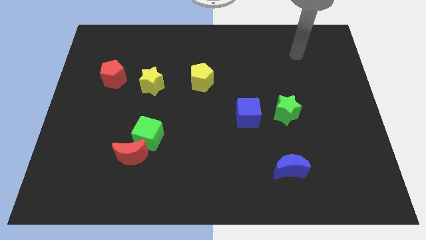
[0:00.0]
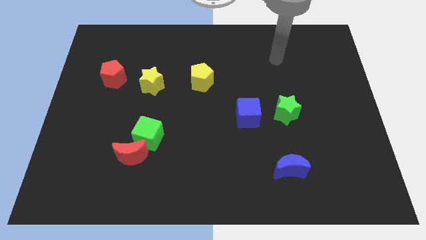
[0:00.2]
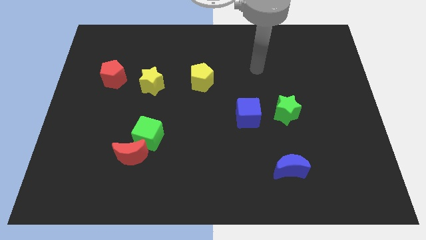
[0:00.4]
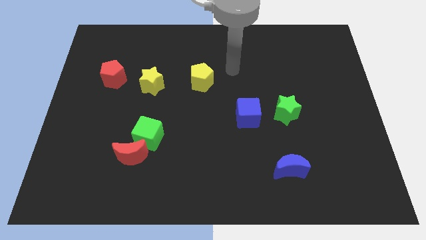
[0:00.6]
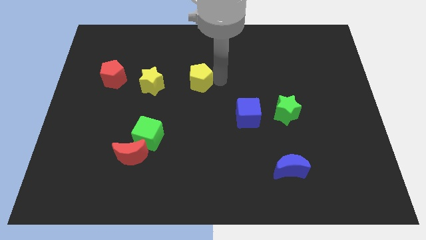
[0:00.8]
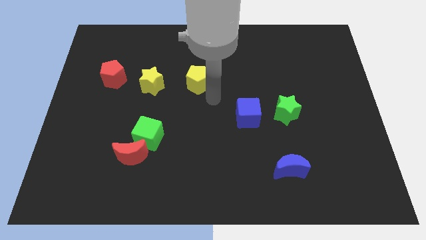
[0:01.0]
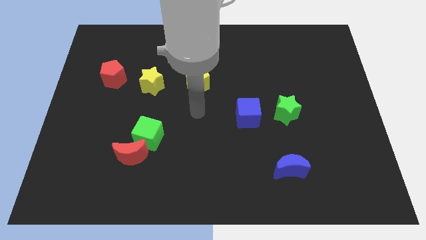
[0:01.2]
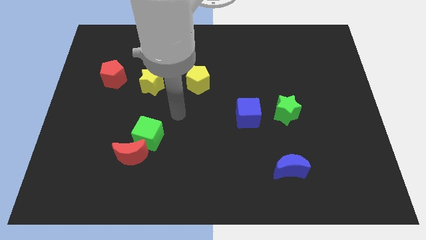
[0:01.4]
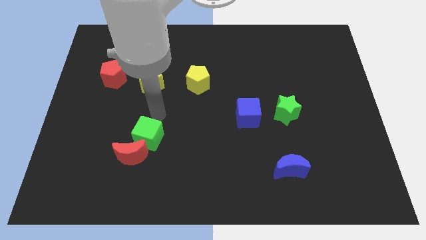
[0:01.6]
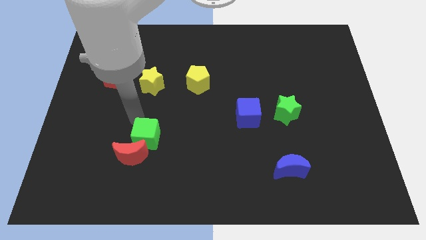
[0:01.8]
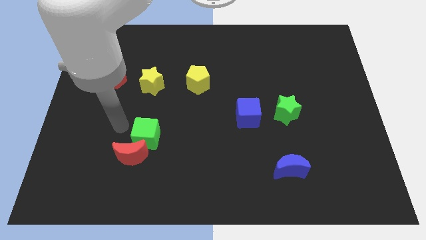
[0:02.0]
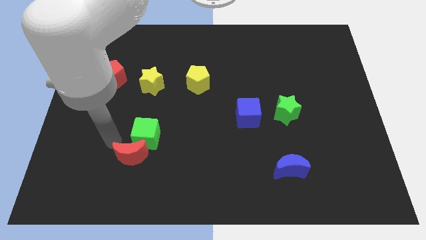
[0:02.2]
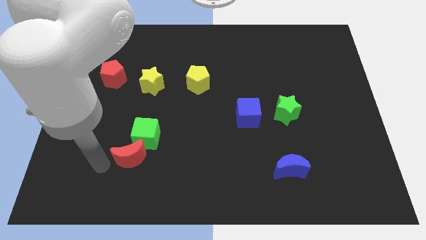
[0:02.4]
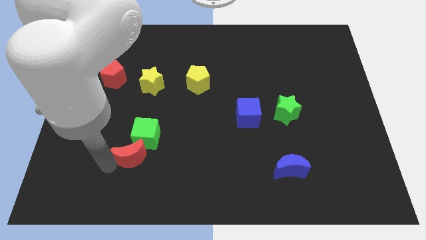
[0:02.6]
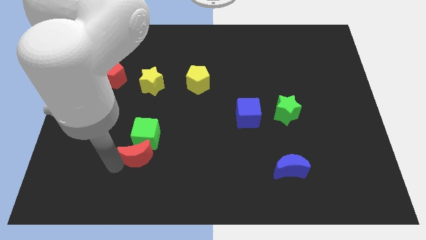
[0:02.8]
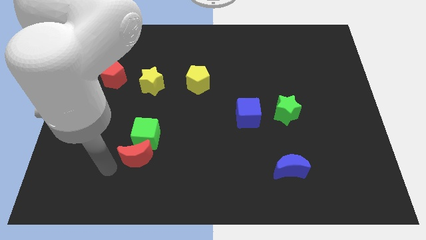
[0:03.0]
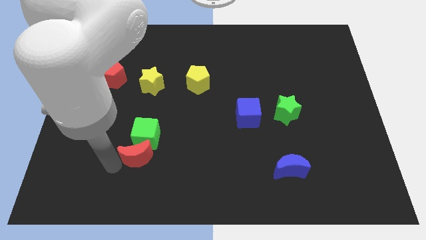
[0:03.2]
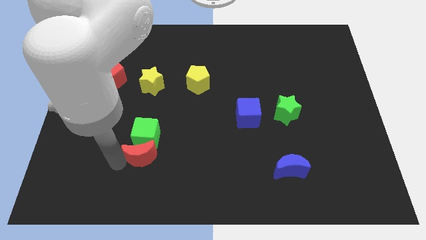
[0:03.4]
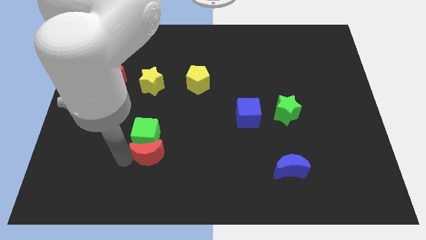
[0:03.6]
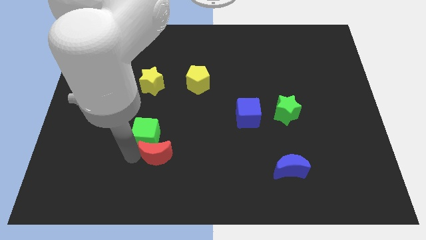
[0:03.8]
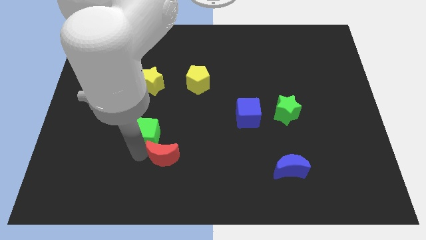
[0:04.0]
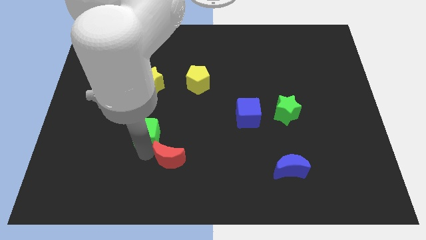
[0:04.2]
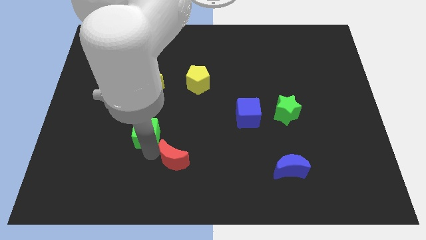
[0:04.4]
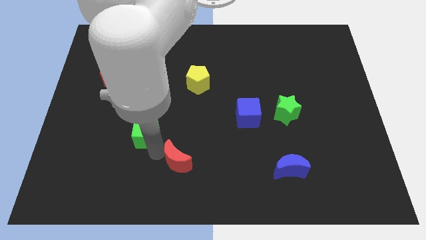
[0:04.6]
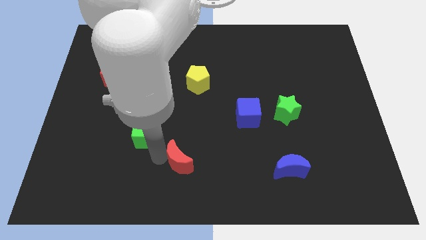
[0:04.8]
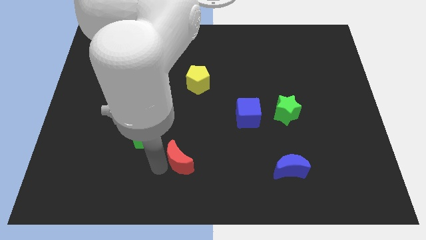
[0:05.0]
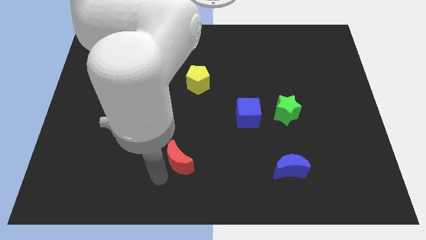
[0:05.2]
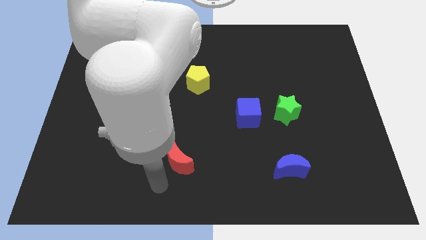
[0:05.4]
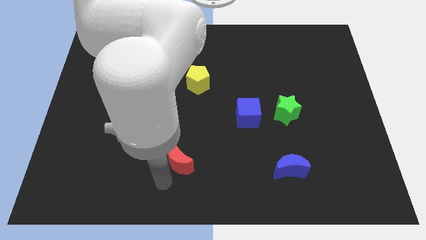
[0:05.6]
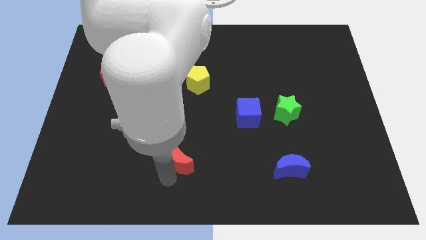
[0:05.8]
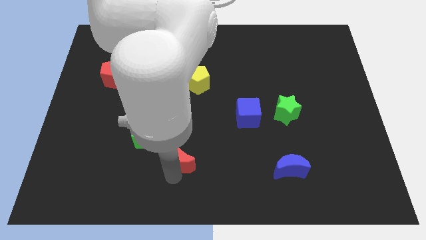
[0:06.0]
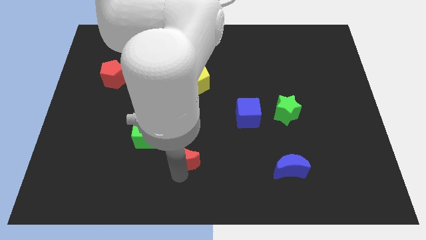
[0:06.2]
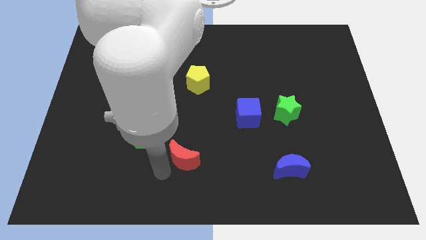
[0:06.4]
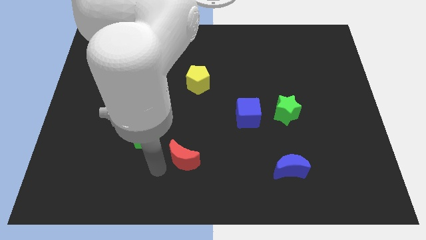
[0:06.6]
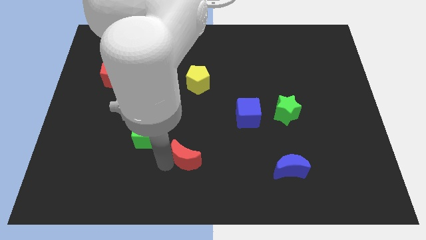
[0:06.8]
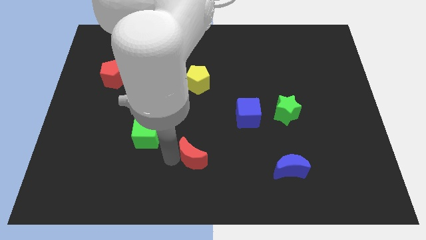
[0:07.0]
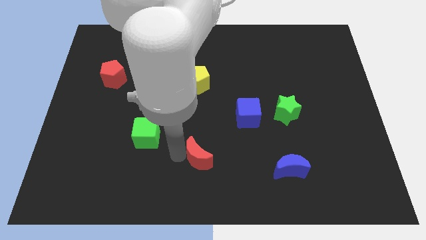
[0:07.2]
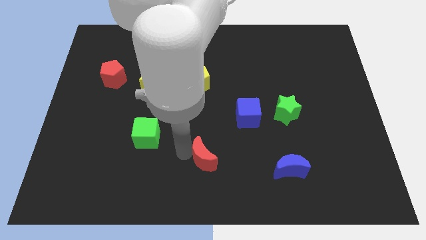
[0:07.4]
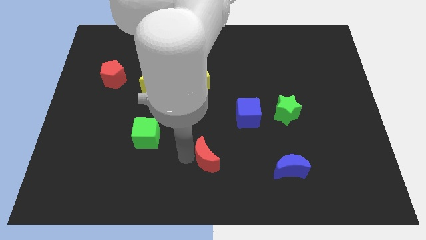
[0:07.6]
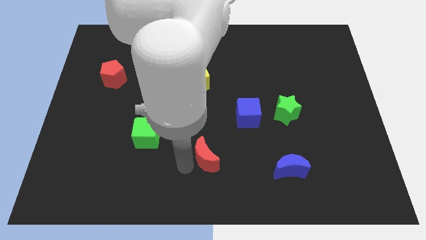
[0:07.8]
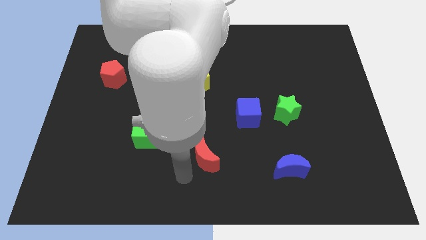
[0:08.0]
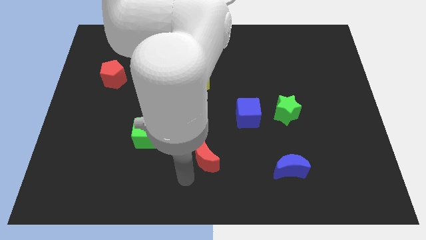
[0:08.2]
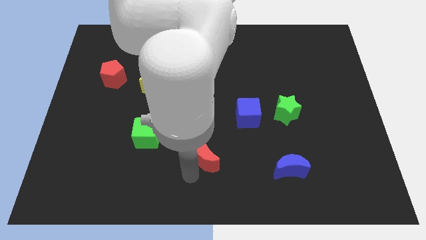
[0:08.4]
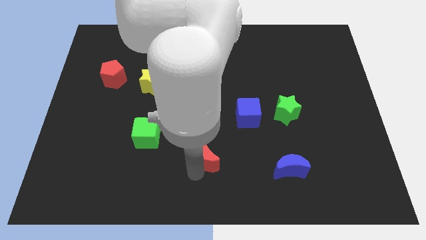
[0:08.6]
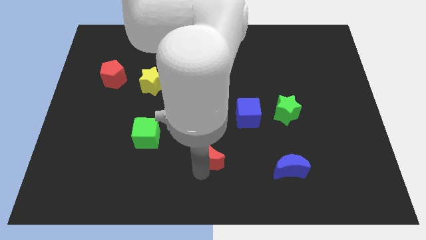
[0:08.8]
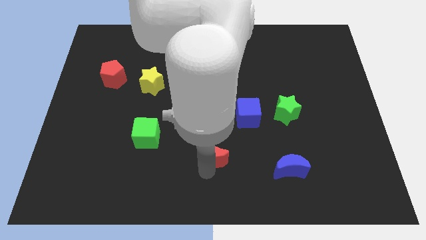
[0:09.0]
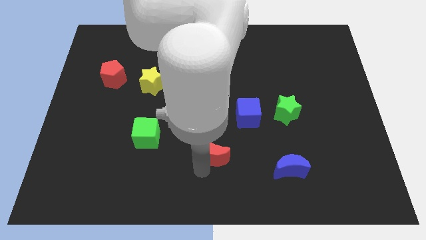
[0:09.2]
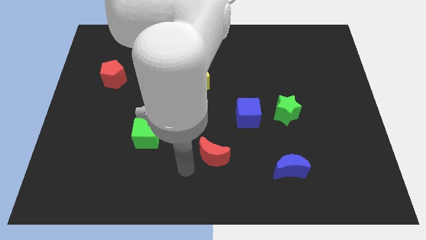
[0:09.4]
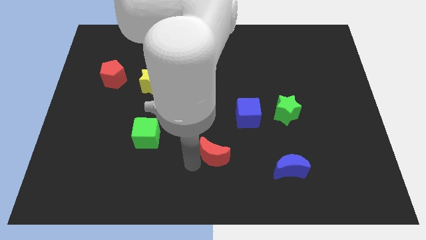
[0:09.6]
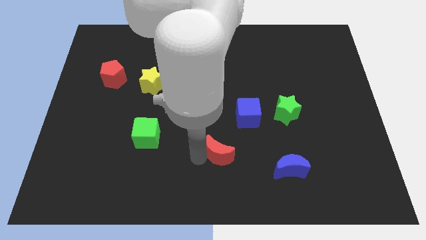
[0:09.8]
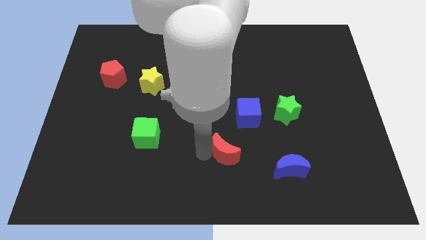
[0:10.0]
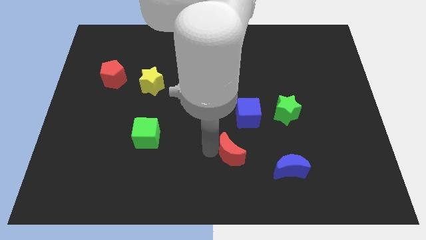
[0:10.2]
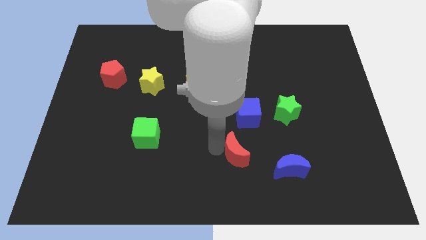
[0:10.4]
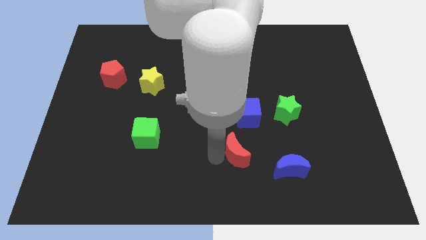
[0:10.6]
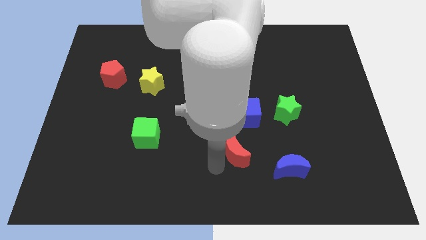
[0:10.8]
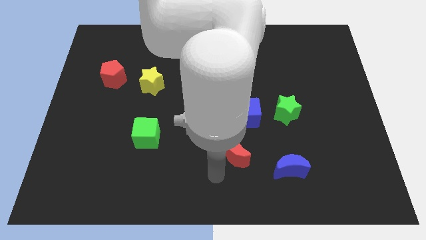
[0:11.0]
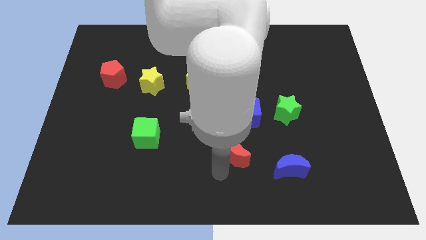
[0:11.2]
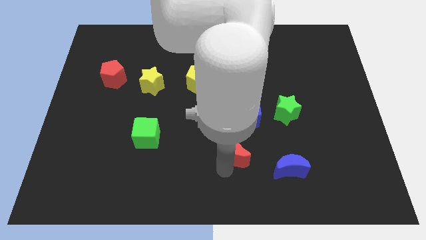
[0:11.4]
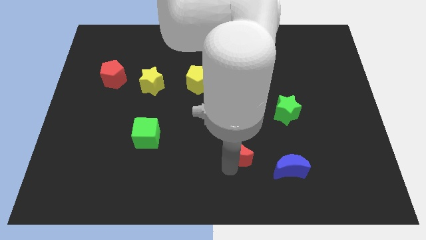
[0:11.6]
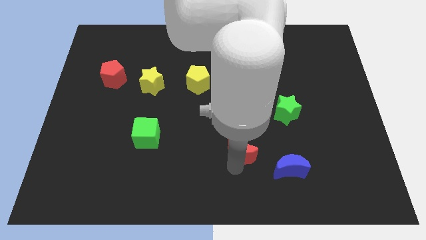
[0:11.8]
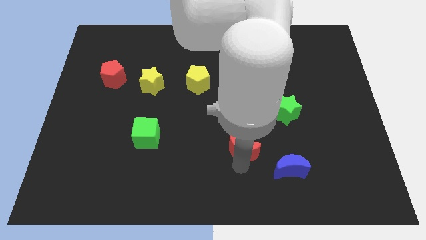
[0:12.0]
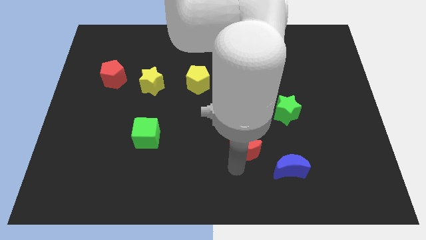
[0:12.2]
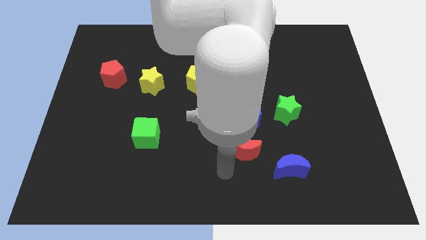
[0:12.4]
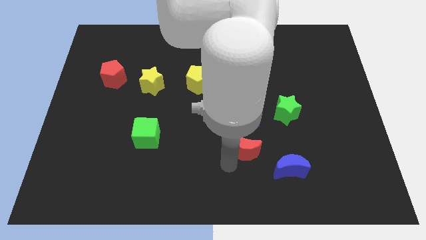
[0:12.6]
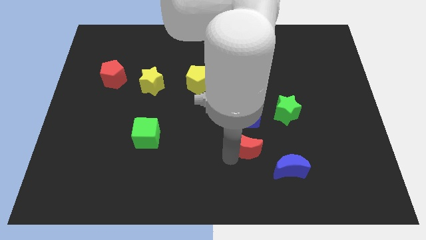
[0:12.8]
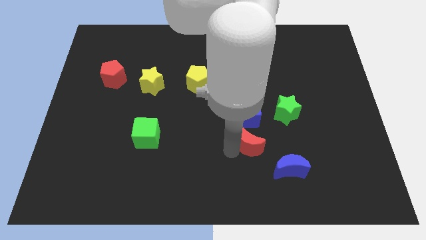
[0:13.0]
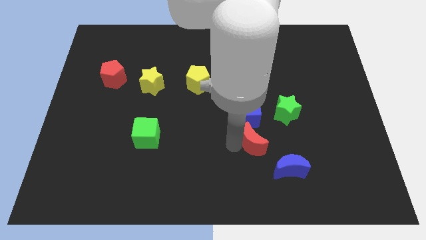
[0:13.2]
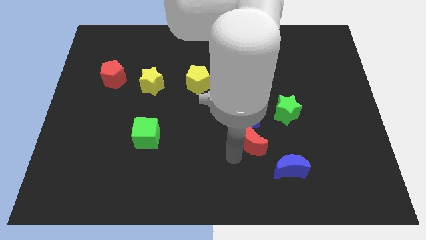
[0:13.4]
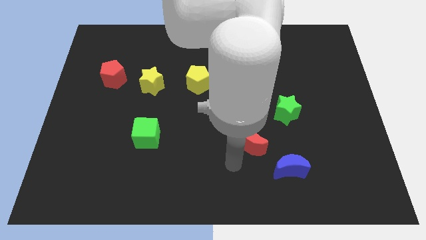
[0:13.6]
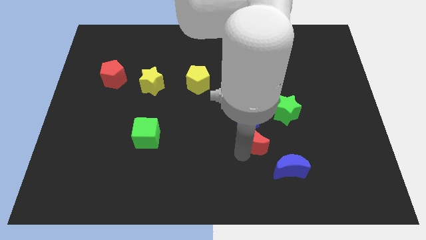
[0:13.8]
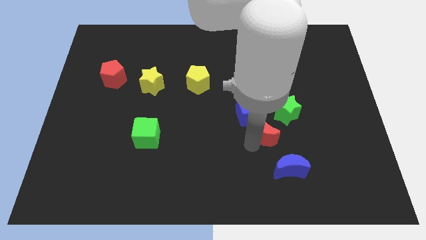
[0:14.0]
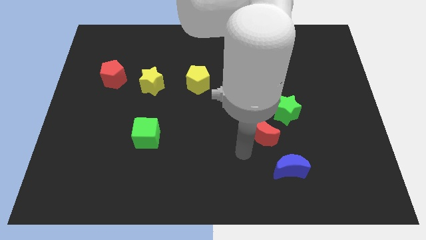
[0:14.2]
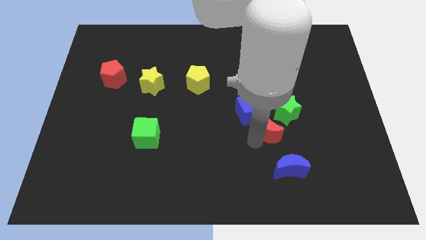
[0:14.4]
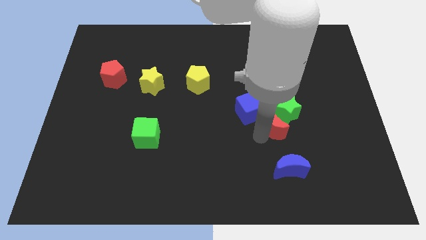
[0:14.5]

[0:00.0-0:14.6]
push the red moon towards the green star

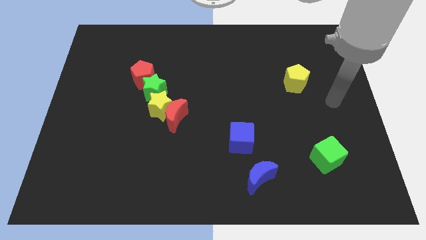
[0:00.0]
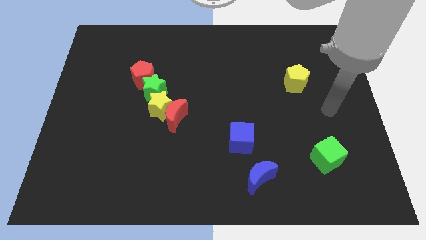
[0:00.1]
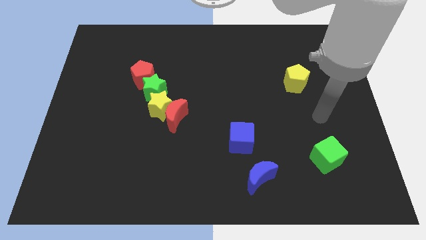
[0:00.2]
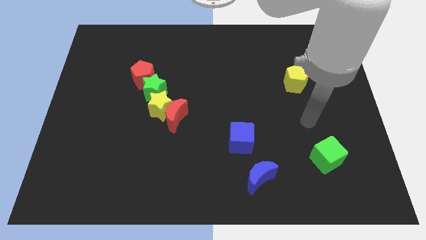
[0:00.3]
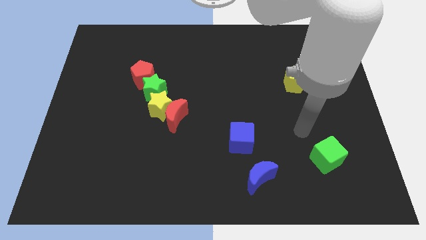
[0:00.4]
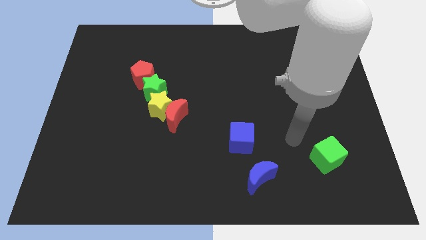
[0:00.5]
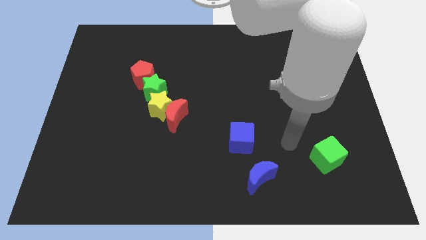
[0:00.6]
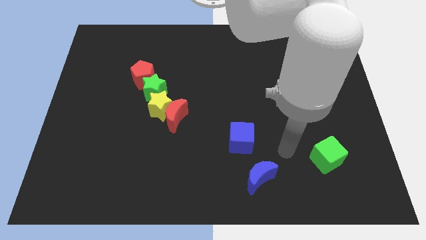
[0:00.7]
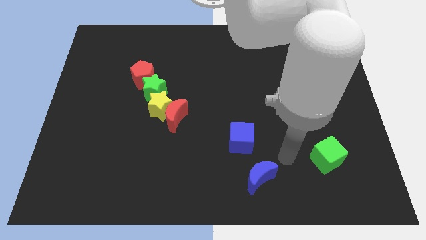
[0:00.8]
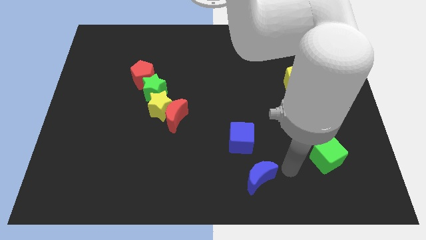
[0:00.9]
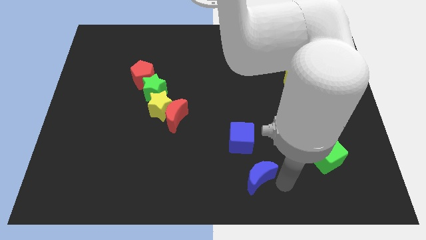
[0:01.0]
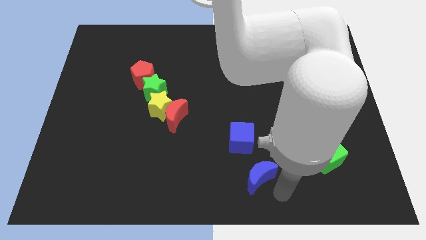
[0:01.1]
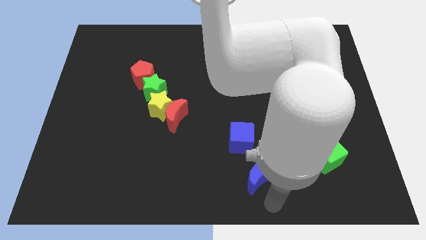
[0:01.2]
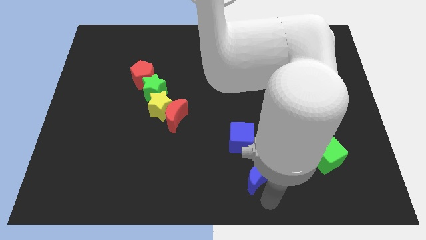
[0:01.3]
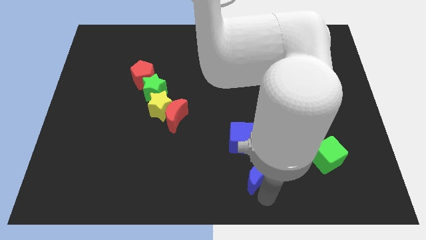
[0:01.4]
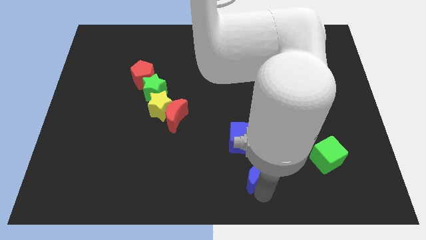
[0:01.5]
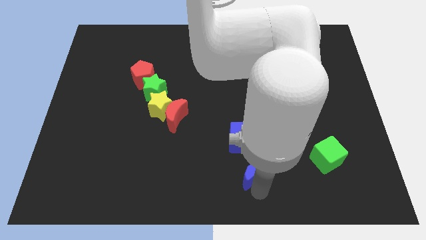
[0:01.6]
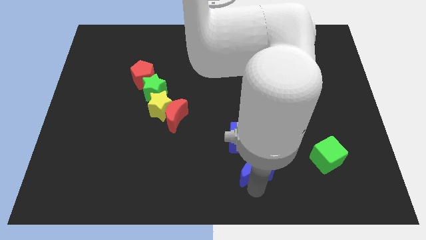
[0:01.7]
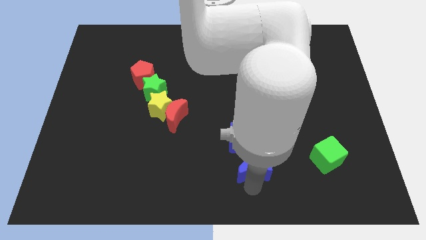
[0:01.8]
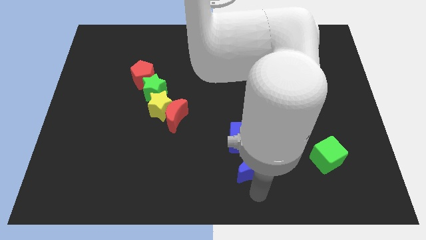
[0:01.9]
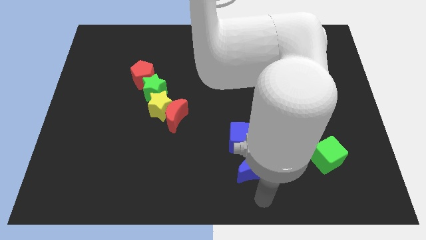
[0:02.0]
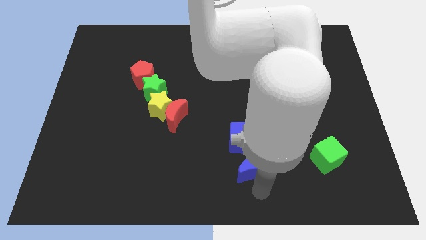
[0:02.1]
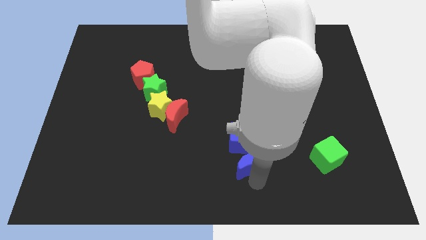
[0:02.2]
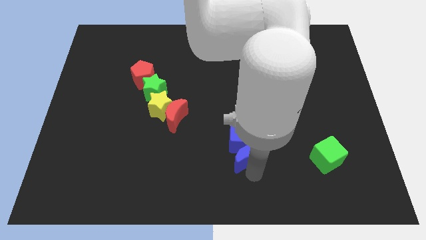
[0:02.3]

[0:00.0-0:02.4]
put the blue moon close to the blue cube
